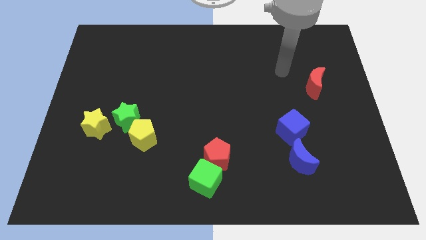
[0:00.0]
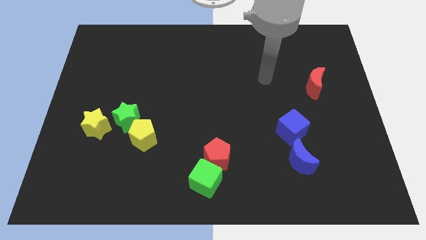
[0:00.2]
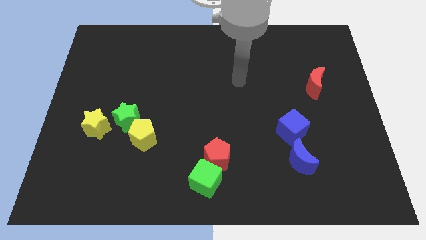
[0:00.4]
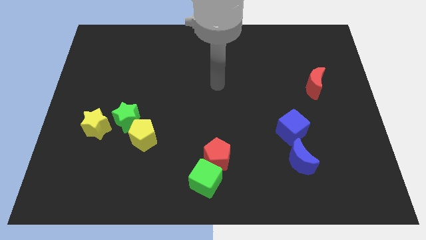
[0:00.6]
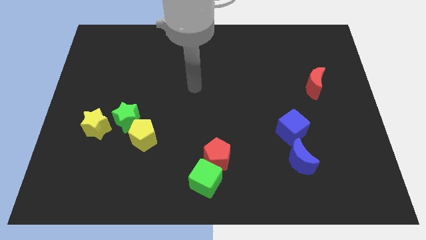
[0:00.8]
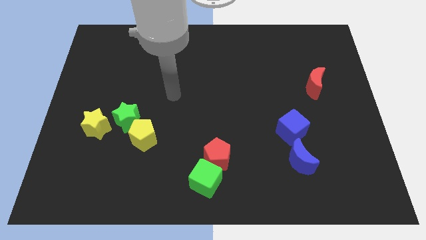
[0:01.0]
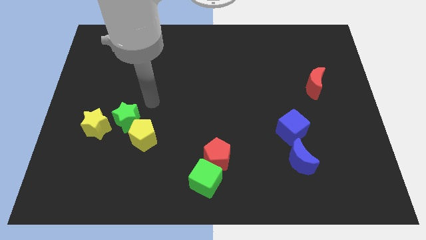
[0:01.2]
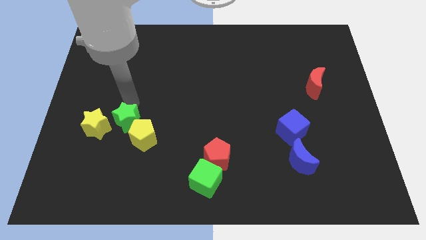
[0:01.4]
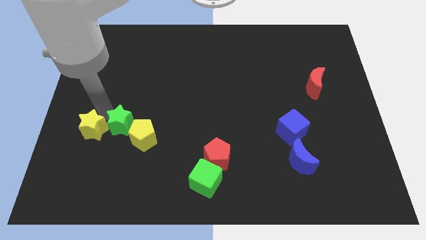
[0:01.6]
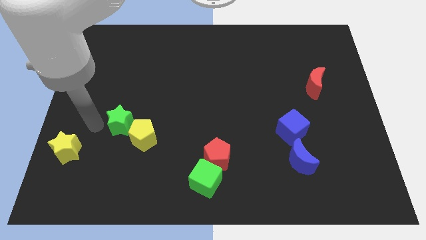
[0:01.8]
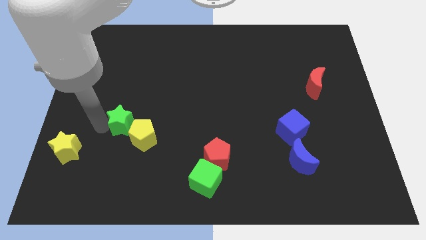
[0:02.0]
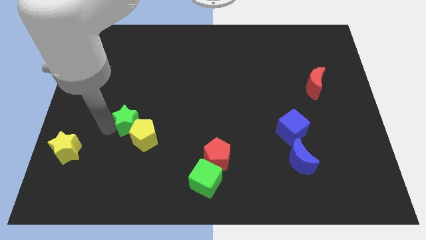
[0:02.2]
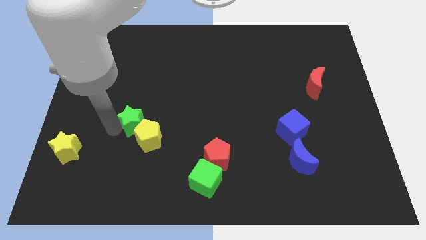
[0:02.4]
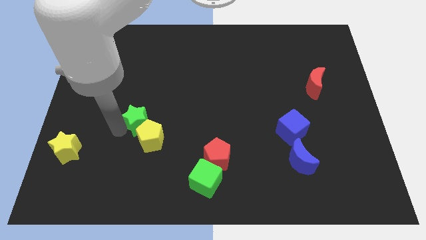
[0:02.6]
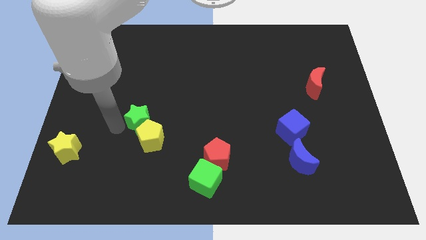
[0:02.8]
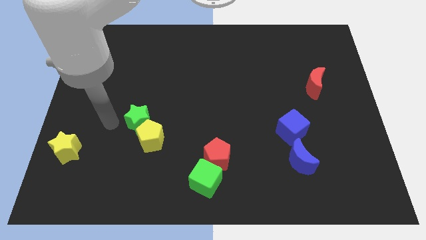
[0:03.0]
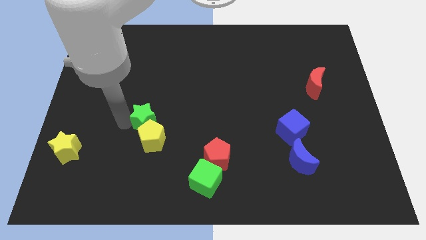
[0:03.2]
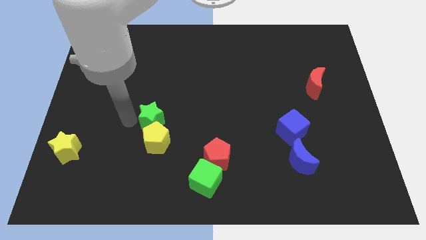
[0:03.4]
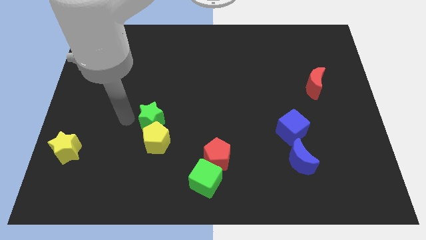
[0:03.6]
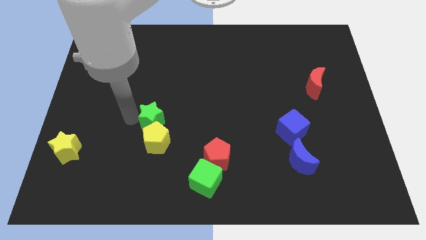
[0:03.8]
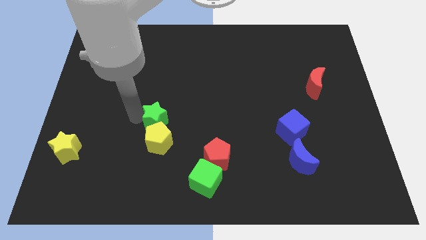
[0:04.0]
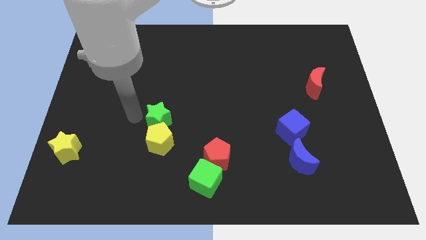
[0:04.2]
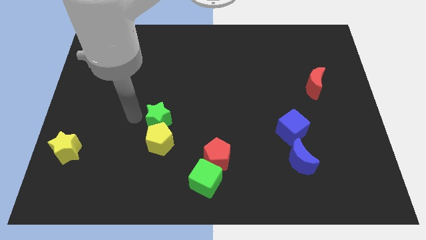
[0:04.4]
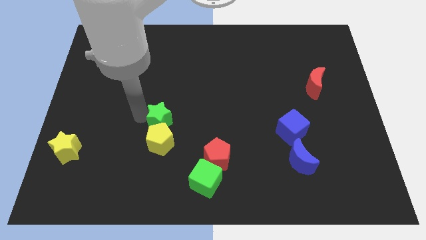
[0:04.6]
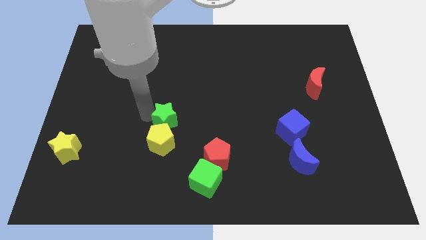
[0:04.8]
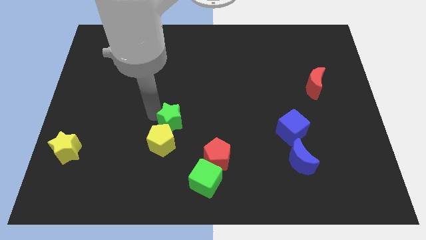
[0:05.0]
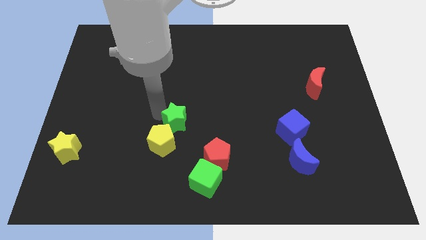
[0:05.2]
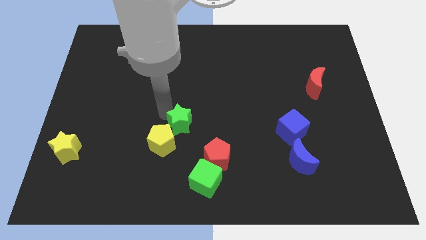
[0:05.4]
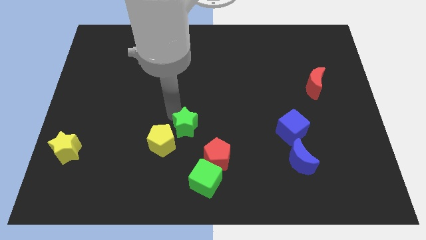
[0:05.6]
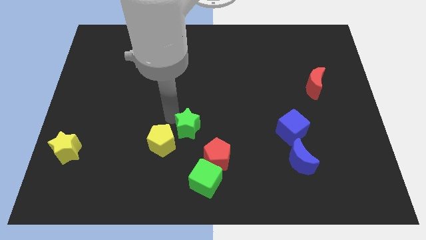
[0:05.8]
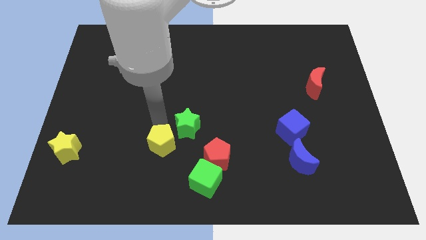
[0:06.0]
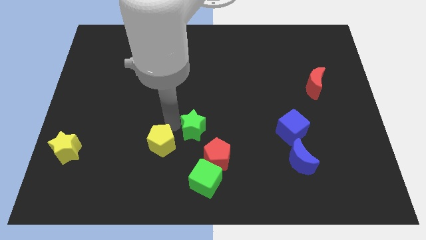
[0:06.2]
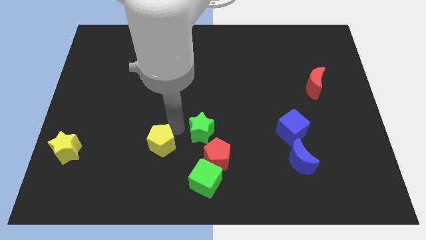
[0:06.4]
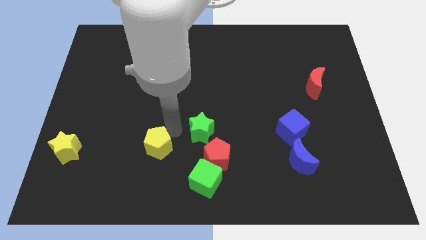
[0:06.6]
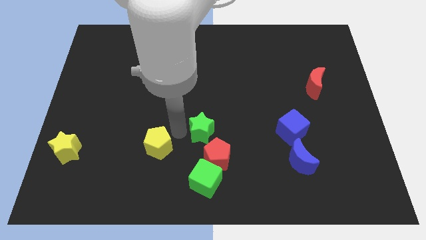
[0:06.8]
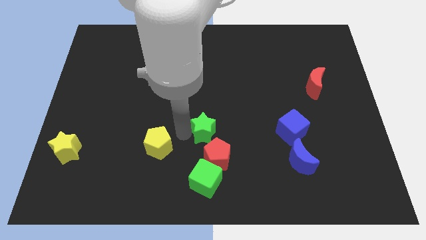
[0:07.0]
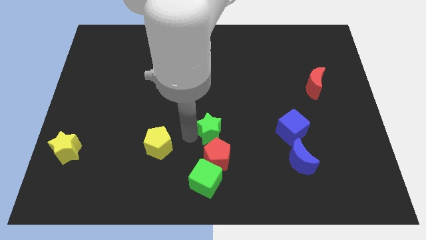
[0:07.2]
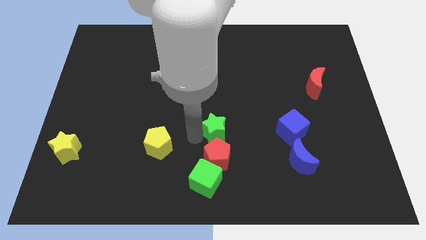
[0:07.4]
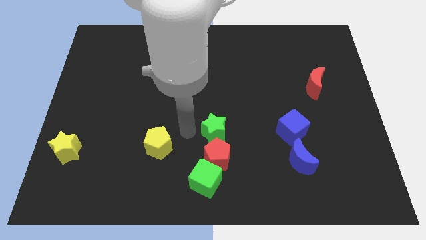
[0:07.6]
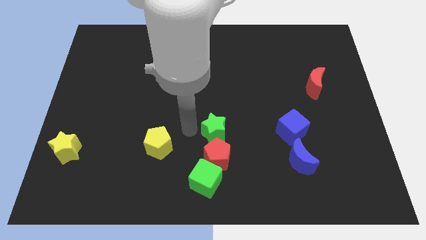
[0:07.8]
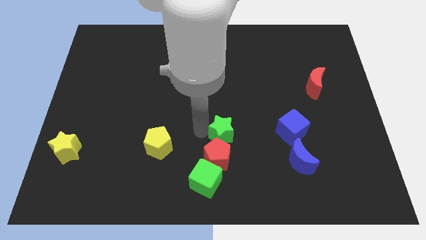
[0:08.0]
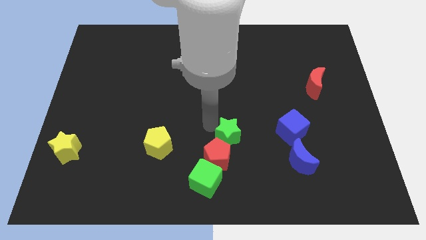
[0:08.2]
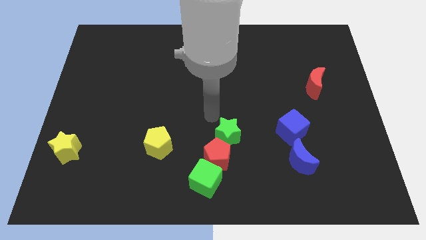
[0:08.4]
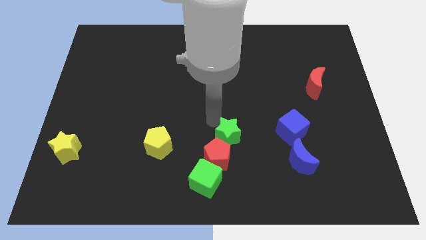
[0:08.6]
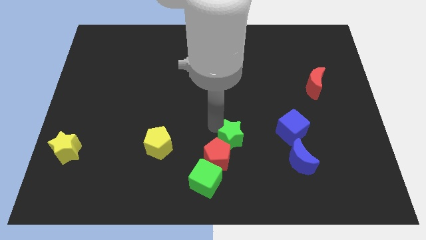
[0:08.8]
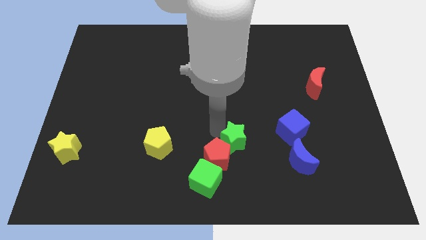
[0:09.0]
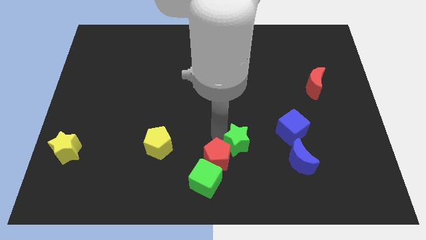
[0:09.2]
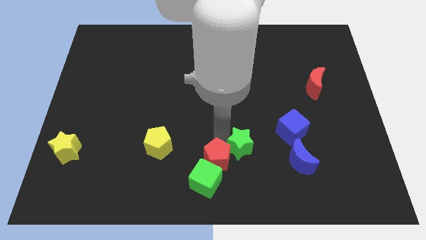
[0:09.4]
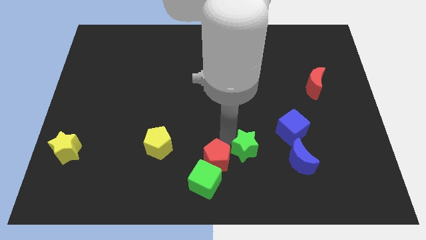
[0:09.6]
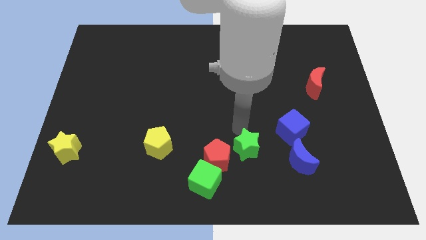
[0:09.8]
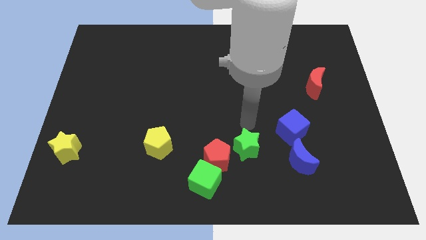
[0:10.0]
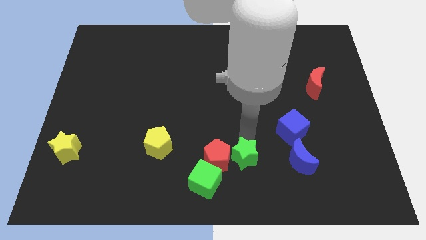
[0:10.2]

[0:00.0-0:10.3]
push the green star diagonally down and to the right of the red pentagon

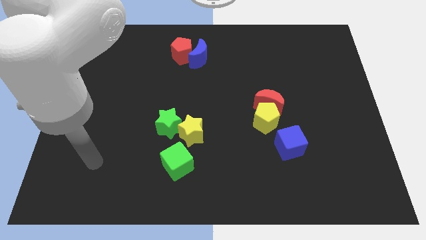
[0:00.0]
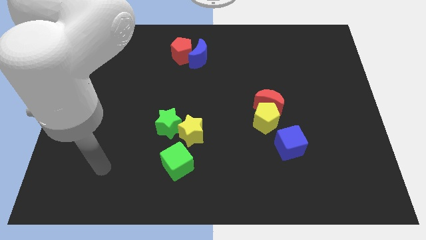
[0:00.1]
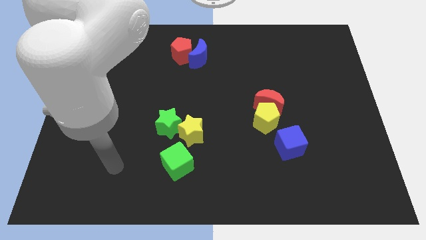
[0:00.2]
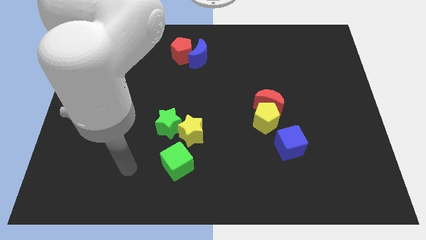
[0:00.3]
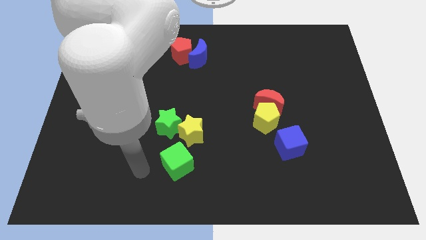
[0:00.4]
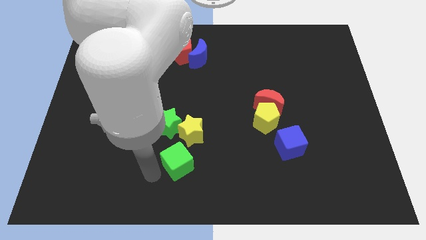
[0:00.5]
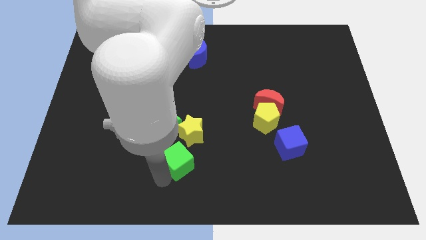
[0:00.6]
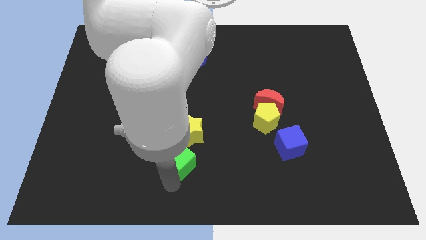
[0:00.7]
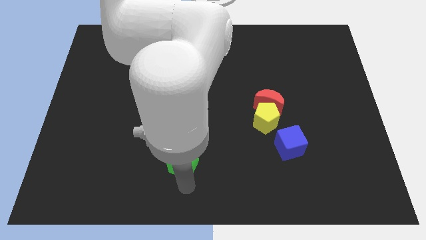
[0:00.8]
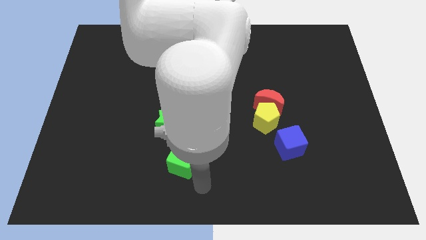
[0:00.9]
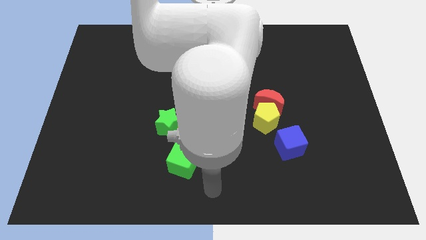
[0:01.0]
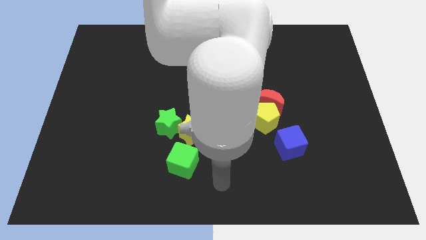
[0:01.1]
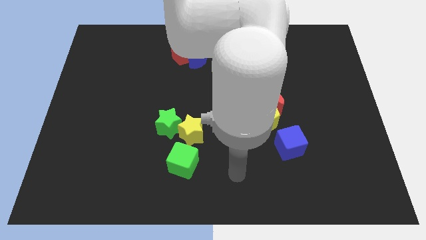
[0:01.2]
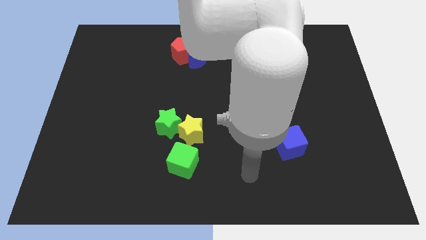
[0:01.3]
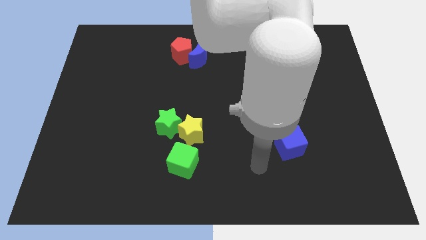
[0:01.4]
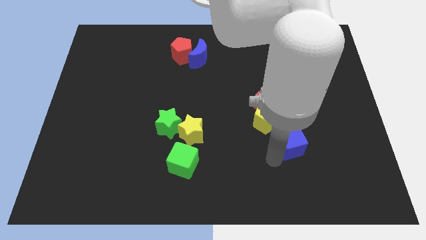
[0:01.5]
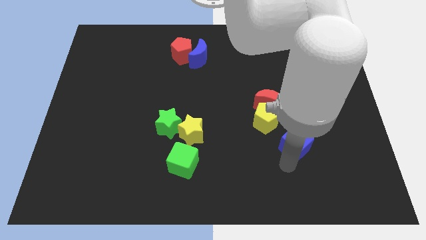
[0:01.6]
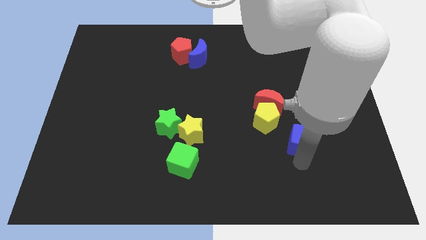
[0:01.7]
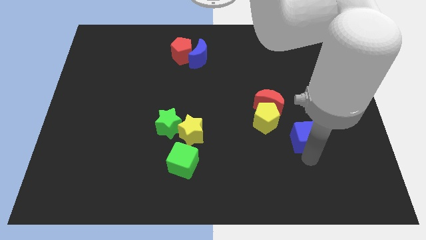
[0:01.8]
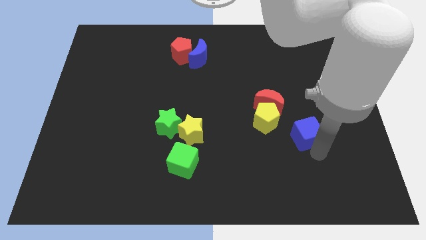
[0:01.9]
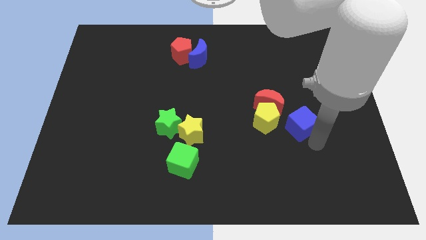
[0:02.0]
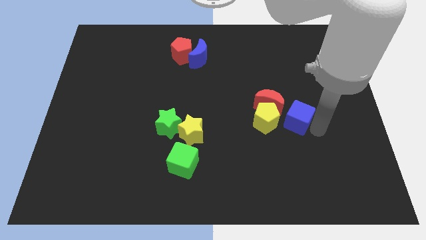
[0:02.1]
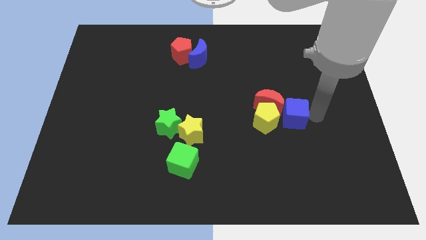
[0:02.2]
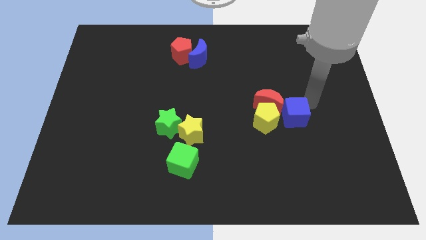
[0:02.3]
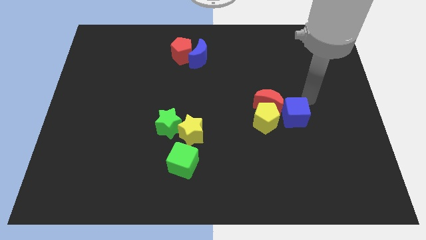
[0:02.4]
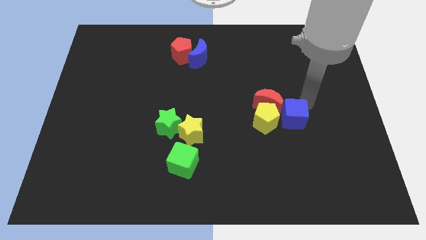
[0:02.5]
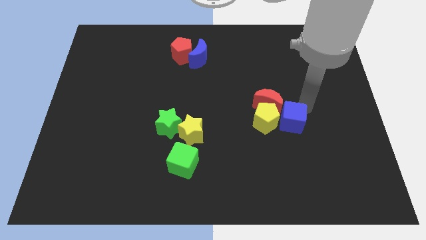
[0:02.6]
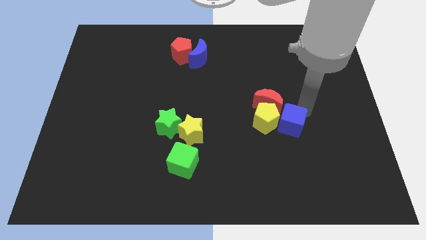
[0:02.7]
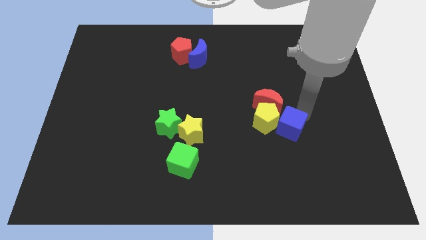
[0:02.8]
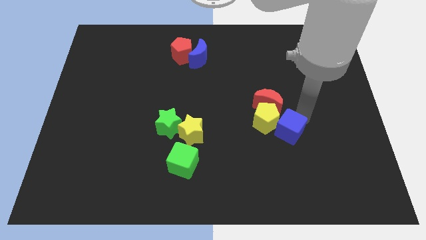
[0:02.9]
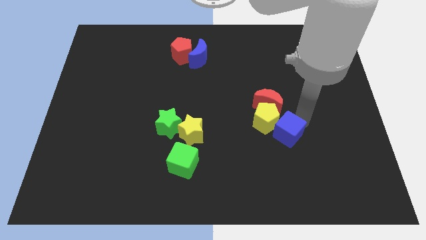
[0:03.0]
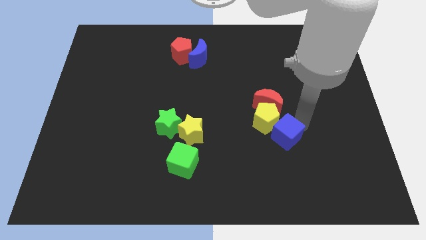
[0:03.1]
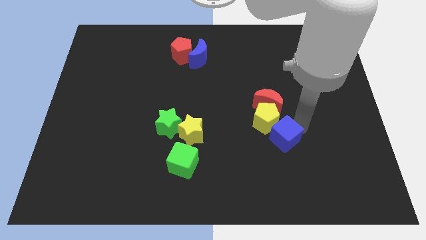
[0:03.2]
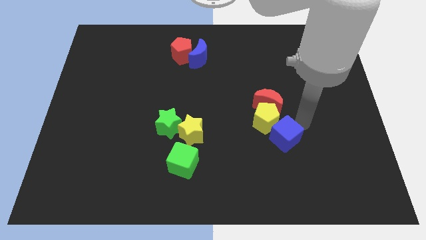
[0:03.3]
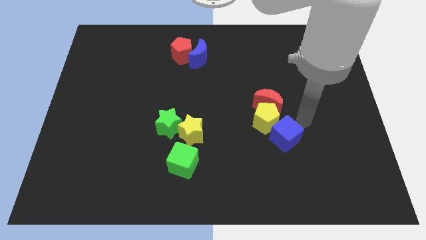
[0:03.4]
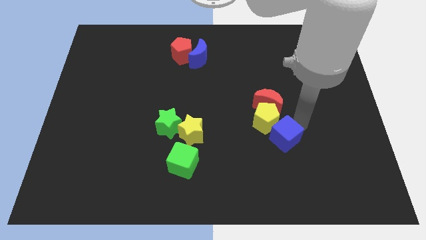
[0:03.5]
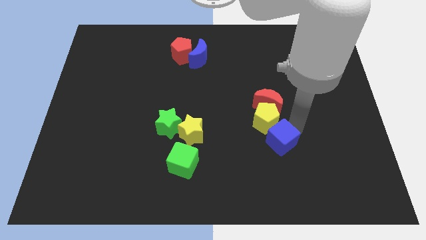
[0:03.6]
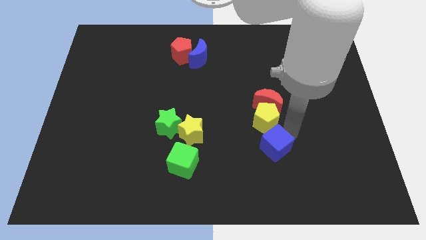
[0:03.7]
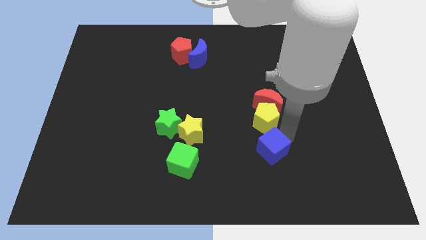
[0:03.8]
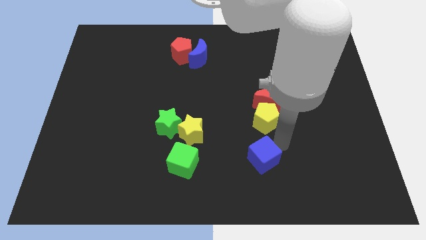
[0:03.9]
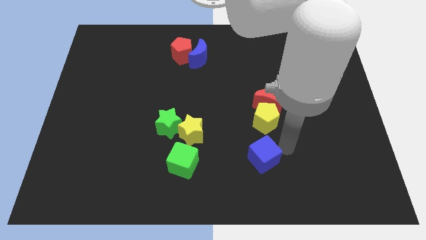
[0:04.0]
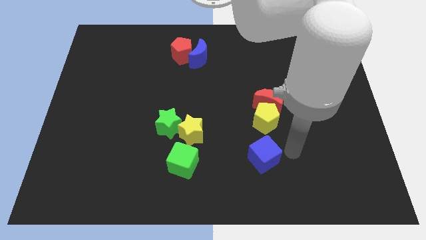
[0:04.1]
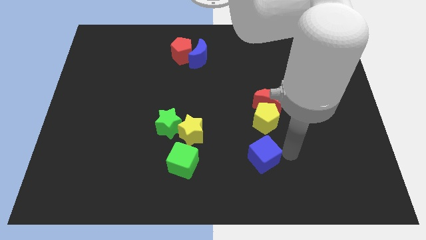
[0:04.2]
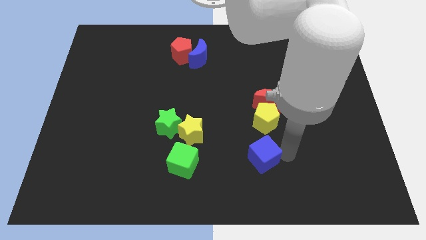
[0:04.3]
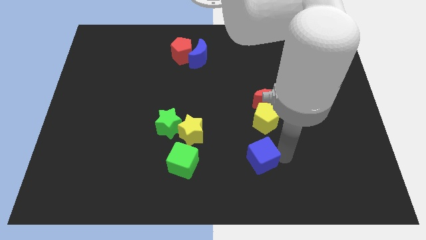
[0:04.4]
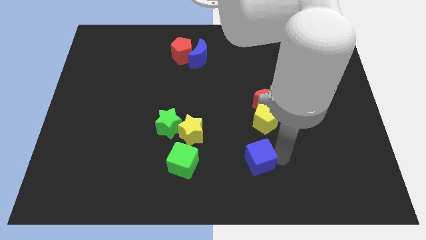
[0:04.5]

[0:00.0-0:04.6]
put the blue cube to the right of the green cube
